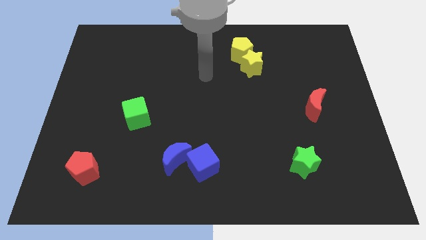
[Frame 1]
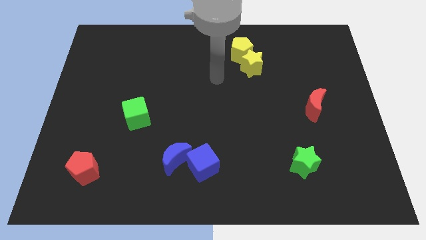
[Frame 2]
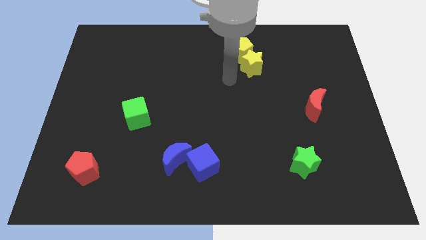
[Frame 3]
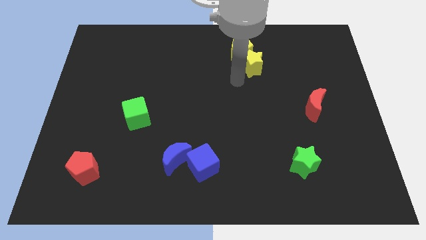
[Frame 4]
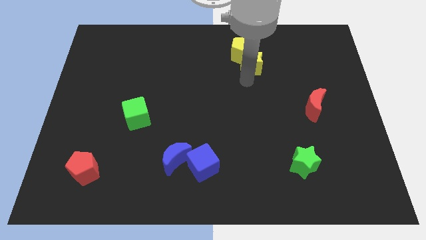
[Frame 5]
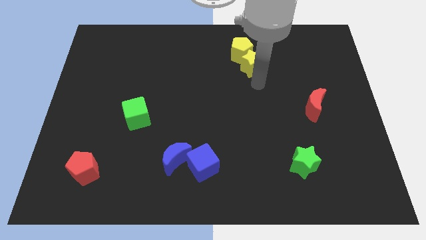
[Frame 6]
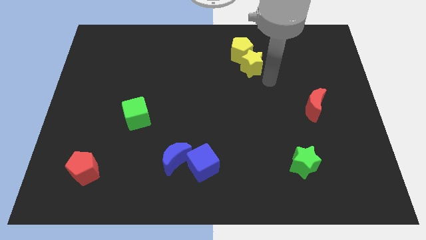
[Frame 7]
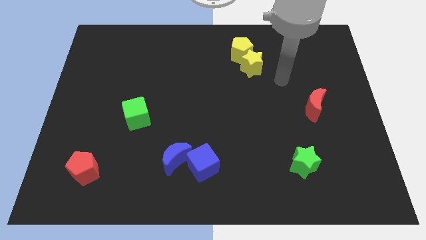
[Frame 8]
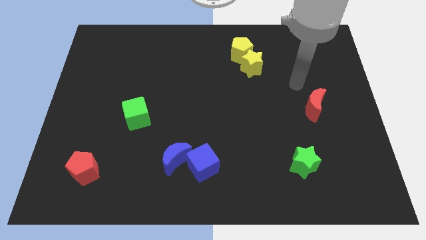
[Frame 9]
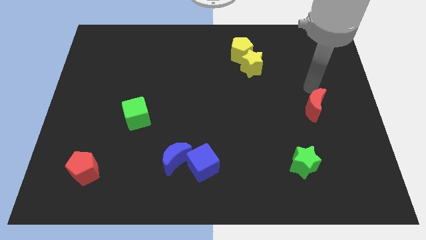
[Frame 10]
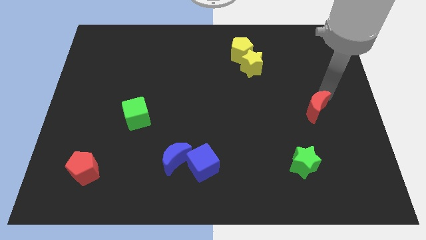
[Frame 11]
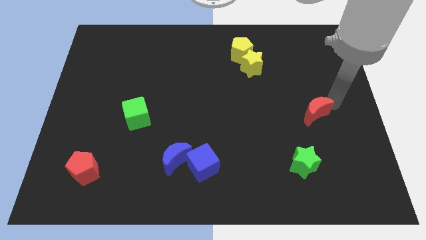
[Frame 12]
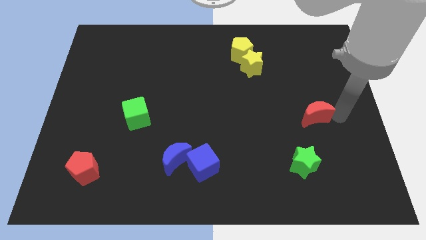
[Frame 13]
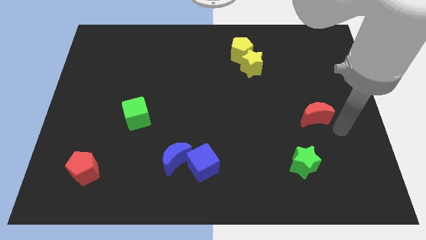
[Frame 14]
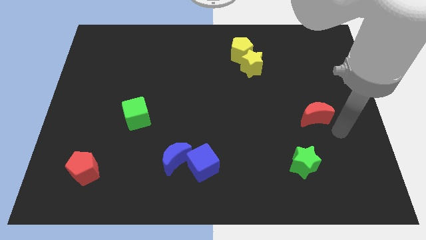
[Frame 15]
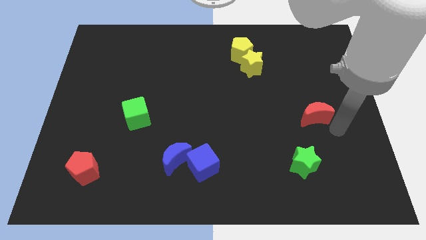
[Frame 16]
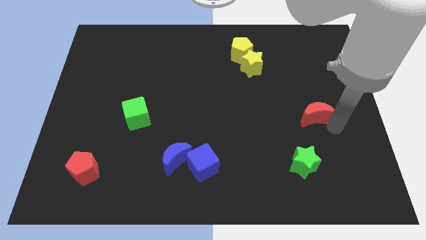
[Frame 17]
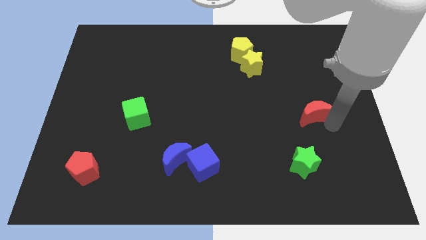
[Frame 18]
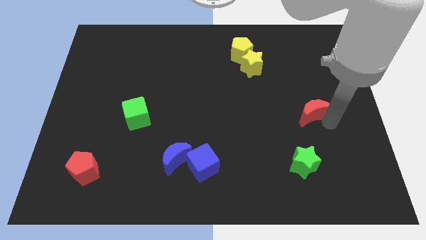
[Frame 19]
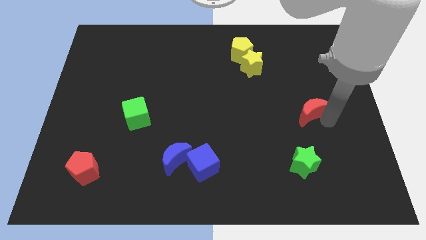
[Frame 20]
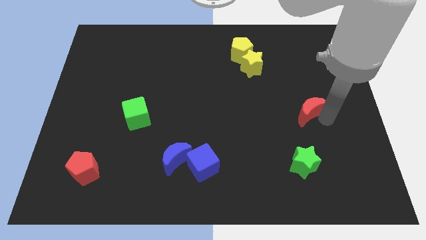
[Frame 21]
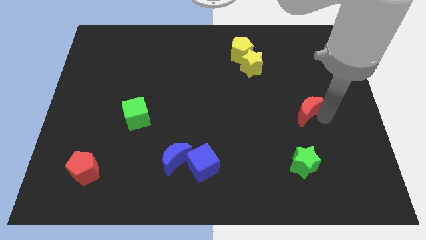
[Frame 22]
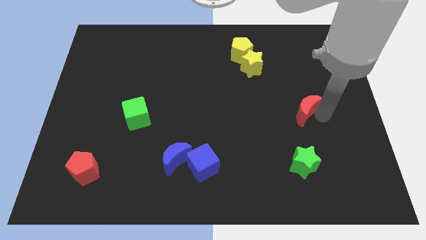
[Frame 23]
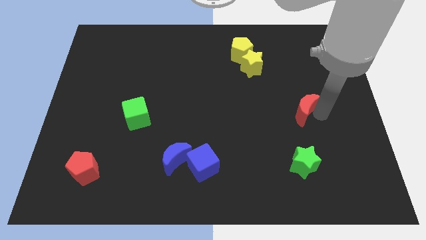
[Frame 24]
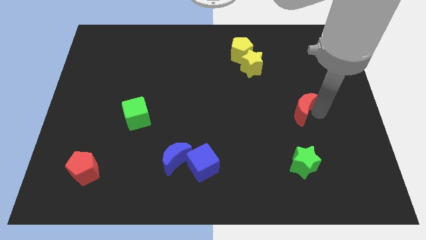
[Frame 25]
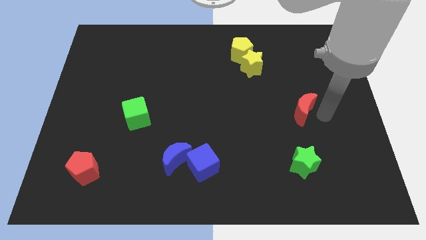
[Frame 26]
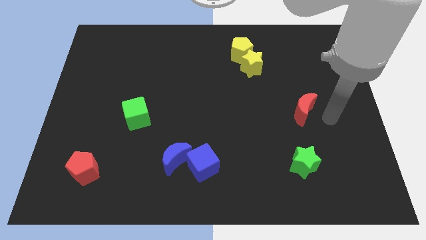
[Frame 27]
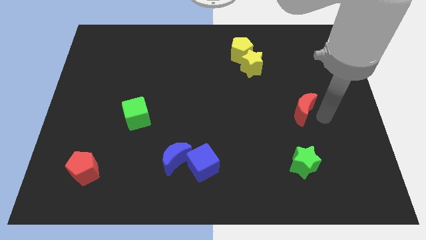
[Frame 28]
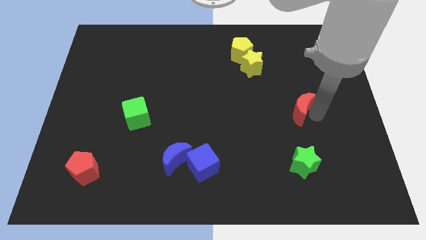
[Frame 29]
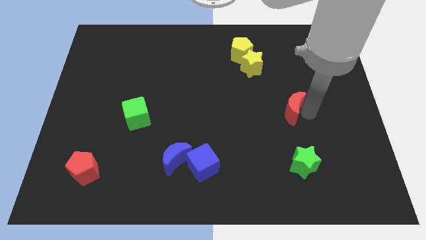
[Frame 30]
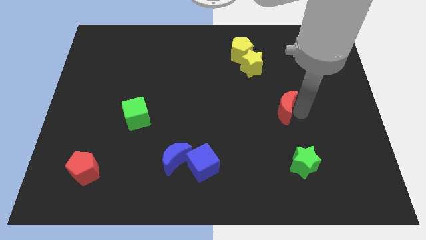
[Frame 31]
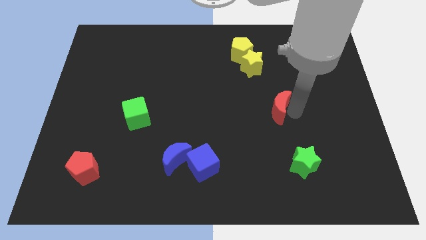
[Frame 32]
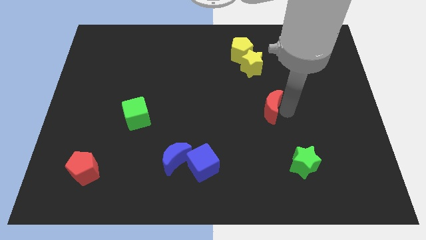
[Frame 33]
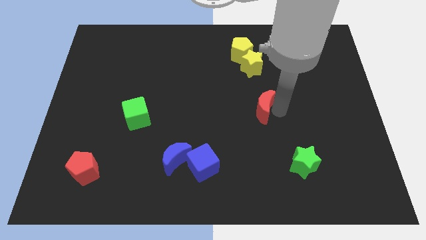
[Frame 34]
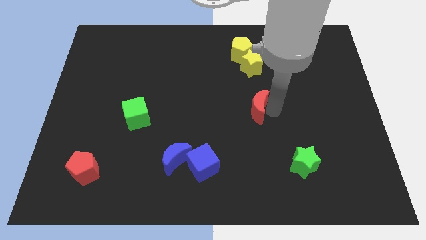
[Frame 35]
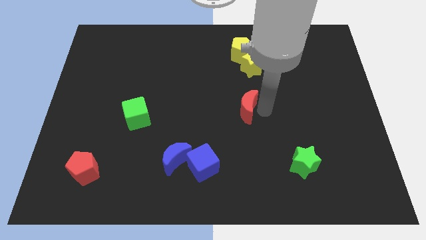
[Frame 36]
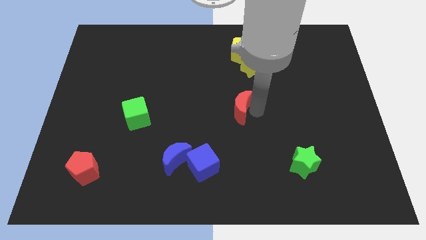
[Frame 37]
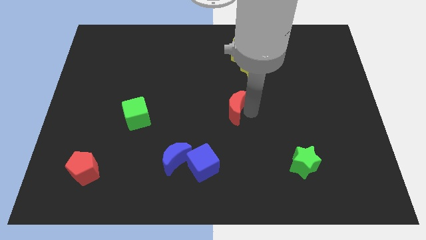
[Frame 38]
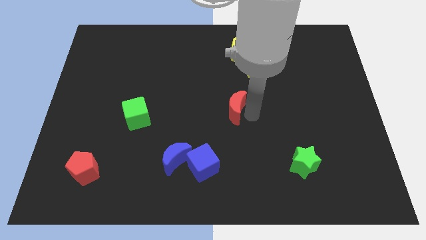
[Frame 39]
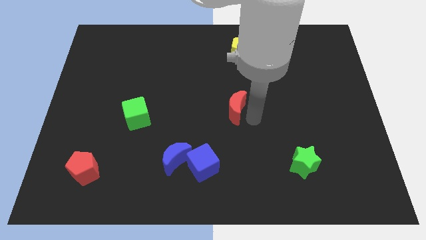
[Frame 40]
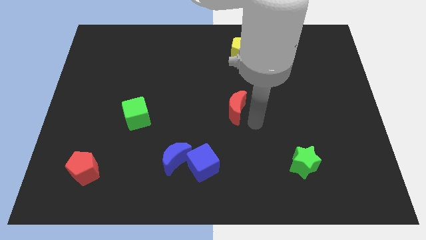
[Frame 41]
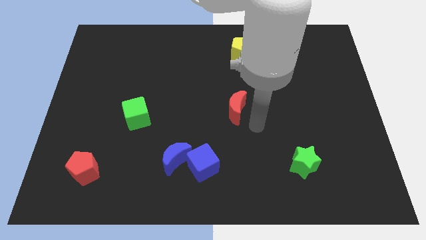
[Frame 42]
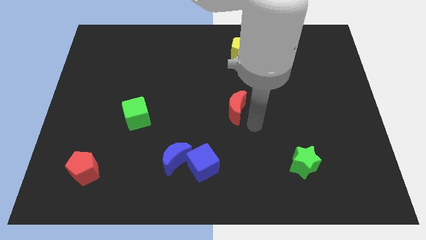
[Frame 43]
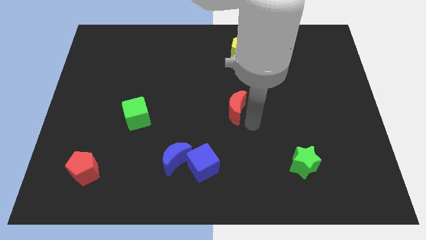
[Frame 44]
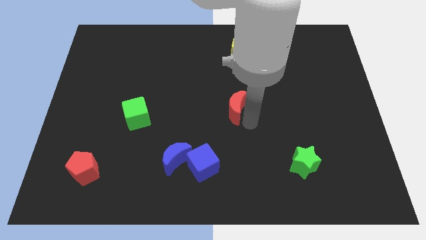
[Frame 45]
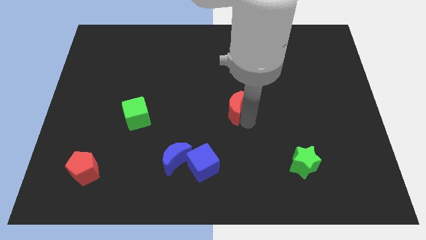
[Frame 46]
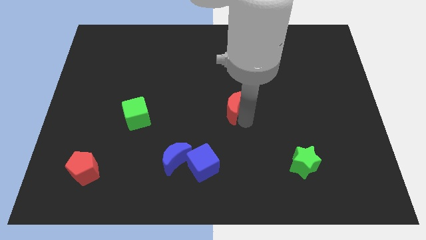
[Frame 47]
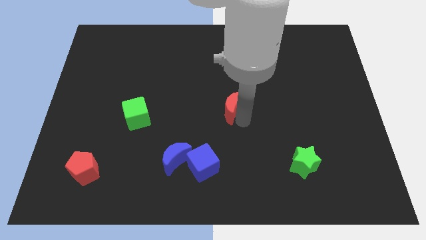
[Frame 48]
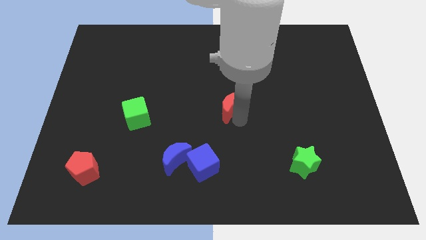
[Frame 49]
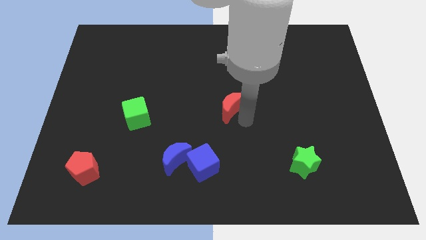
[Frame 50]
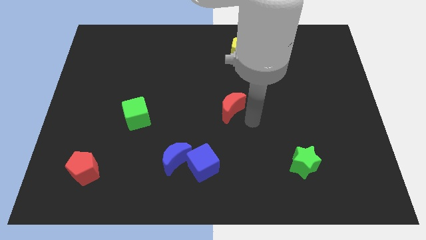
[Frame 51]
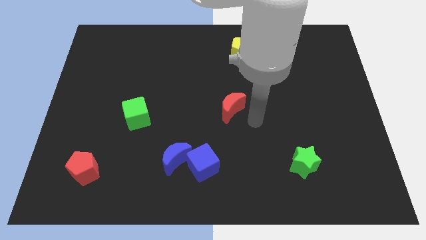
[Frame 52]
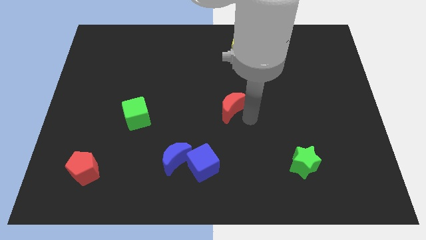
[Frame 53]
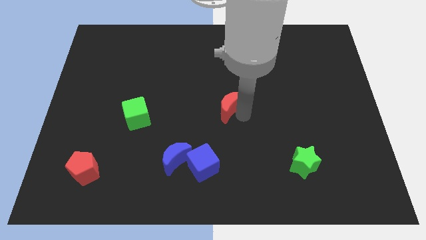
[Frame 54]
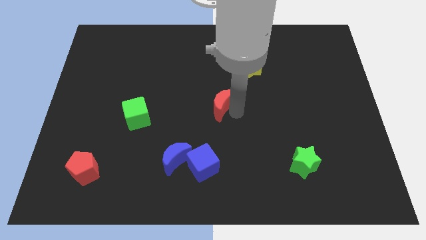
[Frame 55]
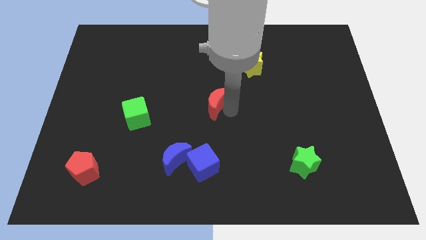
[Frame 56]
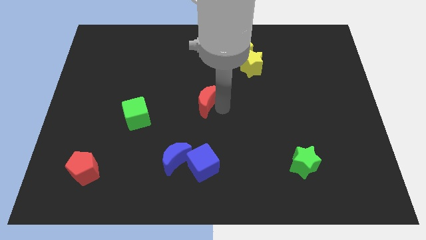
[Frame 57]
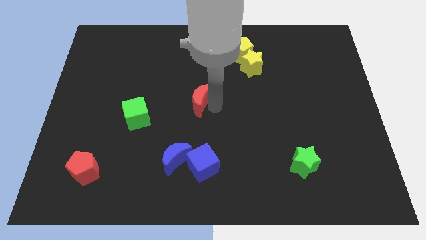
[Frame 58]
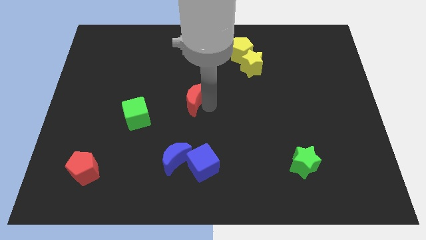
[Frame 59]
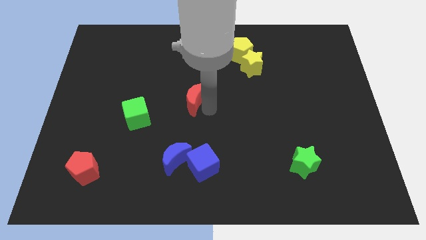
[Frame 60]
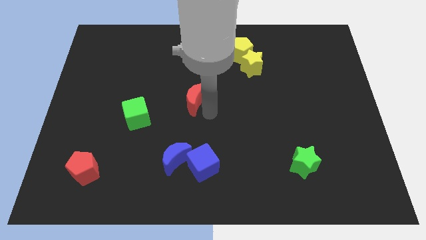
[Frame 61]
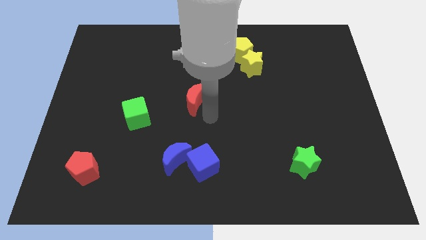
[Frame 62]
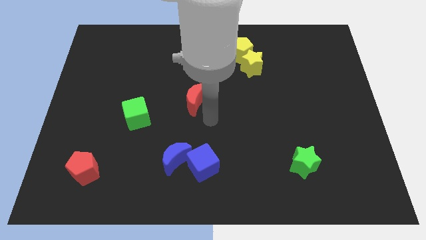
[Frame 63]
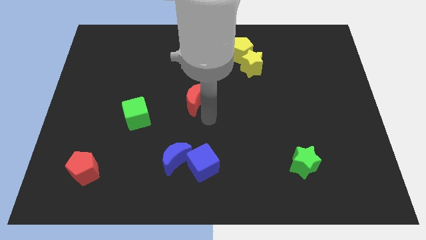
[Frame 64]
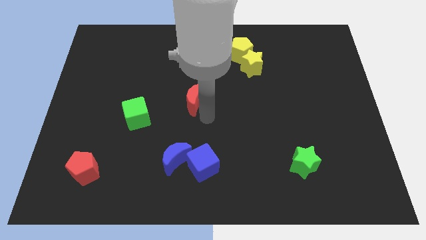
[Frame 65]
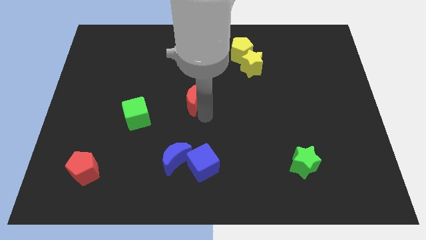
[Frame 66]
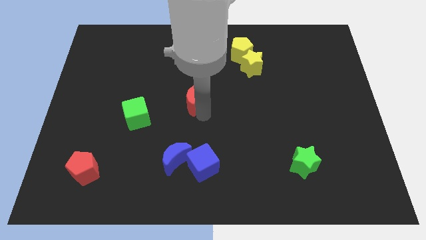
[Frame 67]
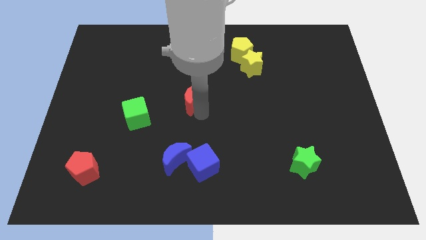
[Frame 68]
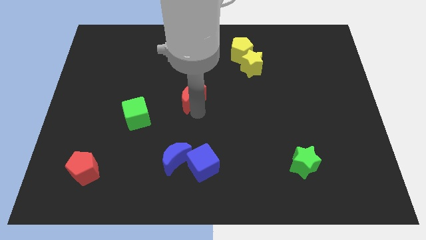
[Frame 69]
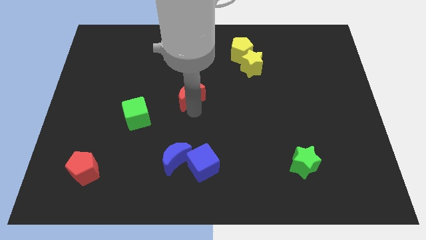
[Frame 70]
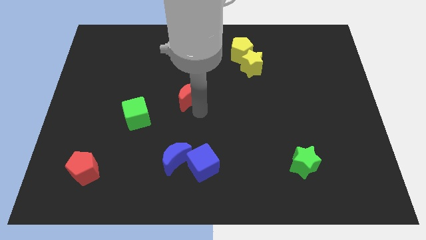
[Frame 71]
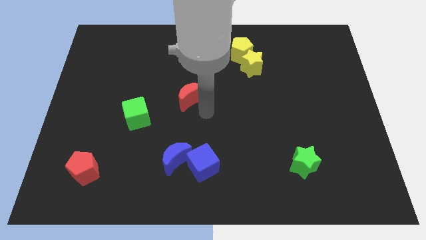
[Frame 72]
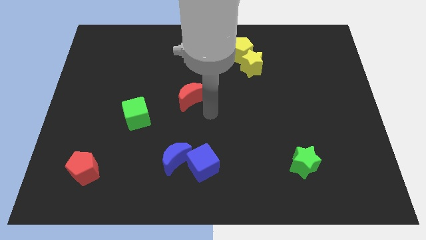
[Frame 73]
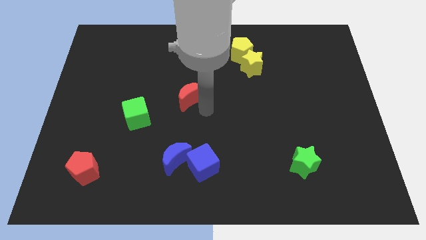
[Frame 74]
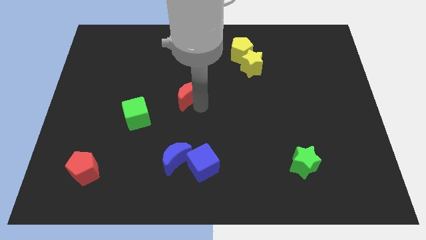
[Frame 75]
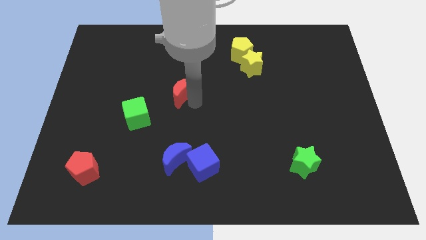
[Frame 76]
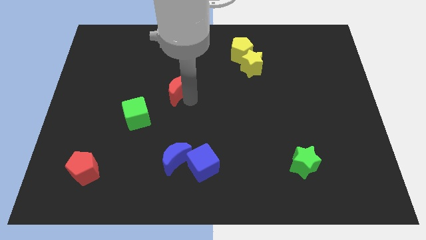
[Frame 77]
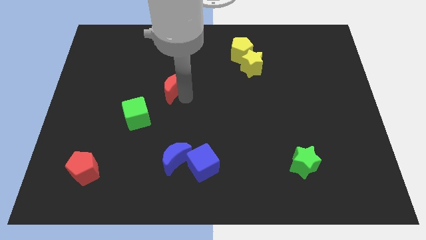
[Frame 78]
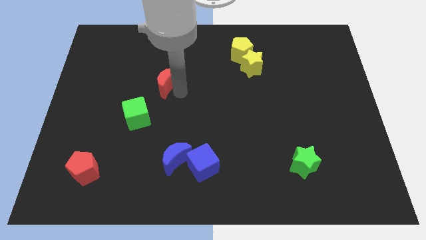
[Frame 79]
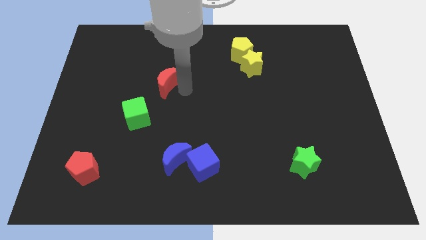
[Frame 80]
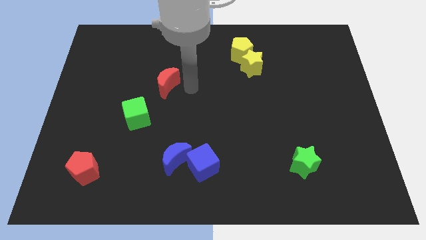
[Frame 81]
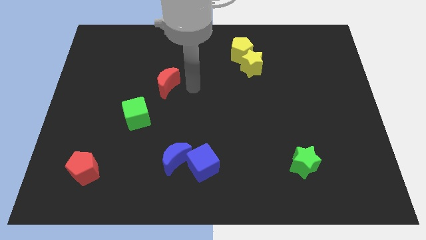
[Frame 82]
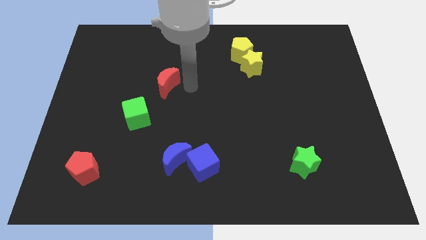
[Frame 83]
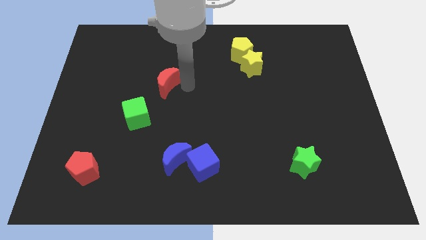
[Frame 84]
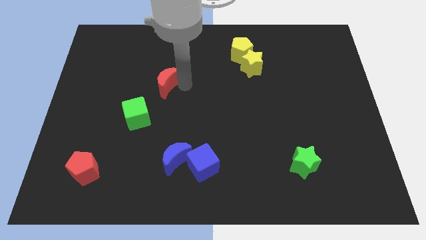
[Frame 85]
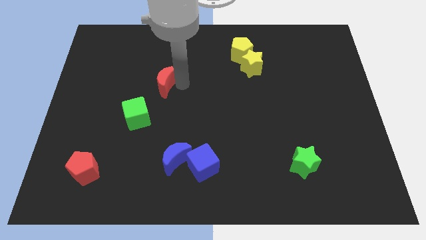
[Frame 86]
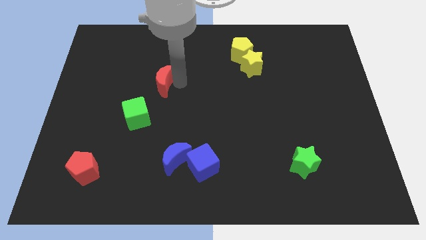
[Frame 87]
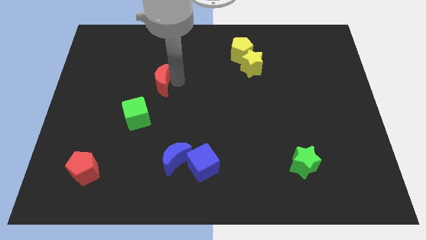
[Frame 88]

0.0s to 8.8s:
push the red moon to the top of the green cube
